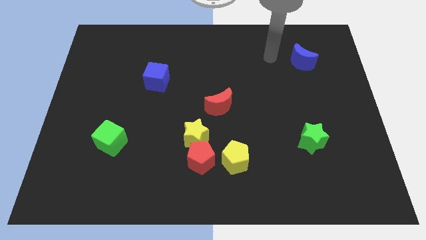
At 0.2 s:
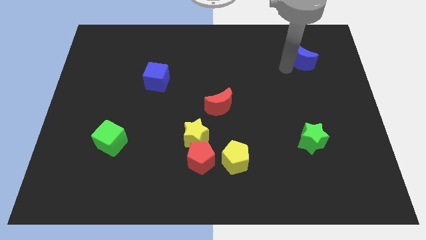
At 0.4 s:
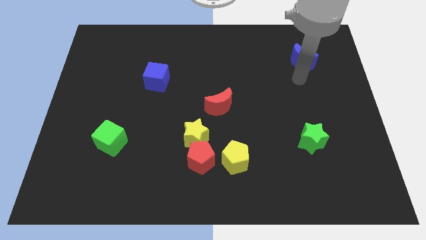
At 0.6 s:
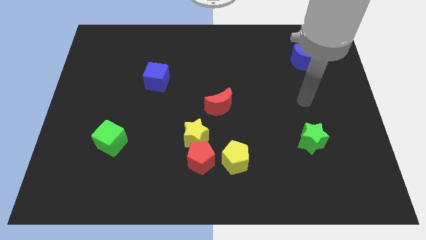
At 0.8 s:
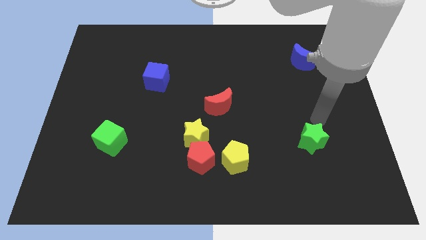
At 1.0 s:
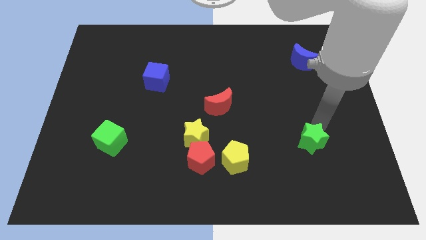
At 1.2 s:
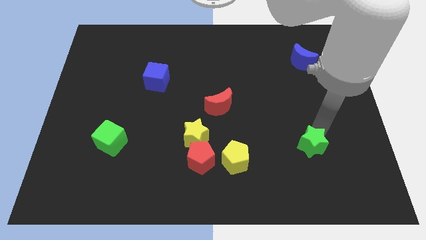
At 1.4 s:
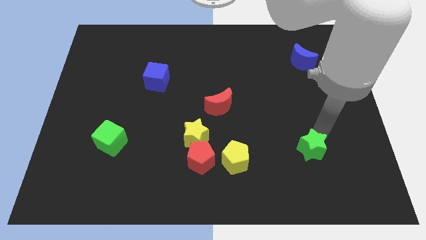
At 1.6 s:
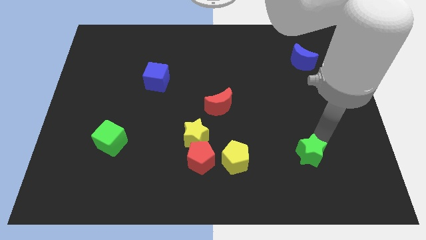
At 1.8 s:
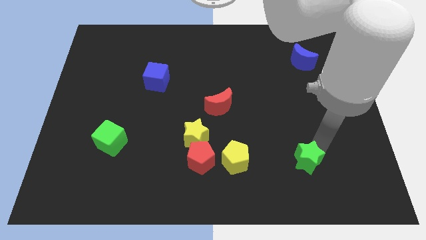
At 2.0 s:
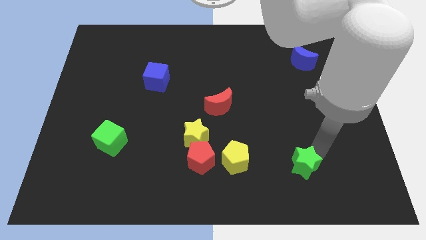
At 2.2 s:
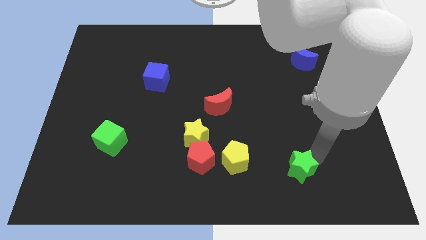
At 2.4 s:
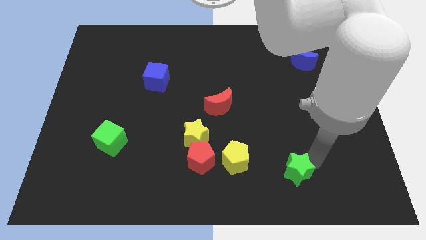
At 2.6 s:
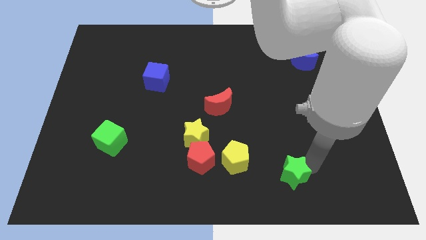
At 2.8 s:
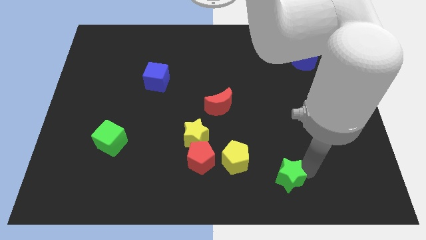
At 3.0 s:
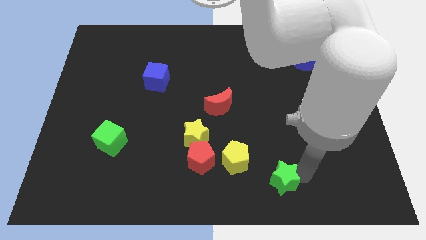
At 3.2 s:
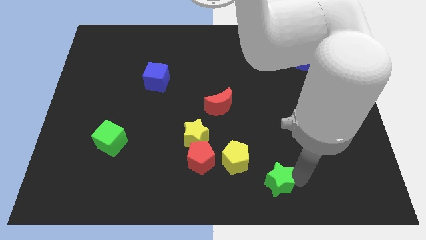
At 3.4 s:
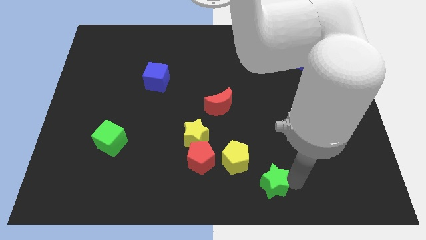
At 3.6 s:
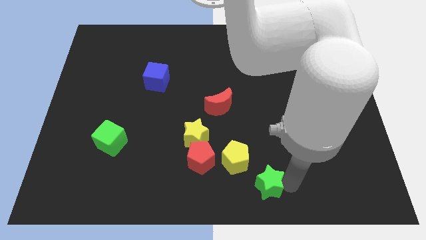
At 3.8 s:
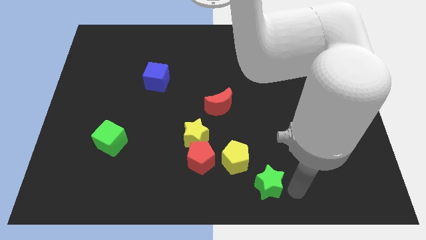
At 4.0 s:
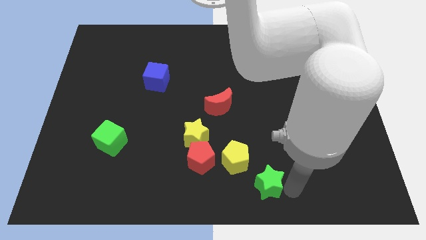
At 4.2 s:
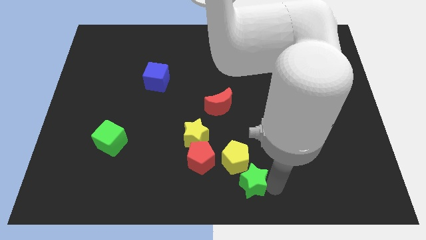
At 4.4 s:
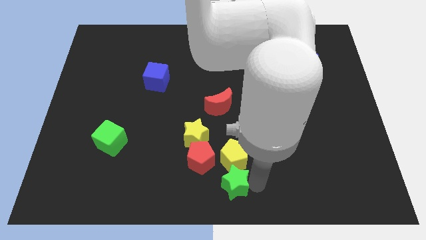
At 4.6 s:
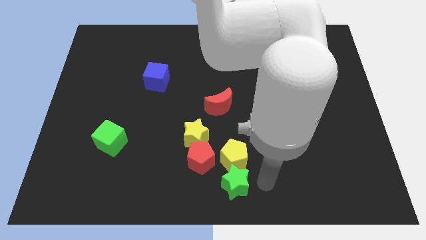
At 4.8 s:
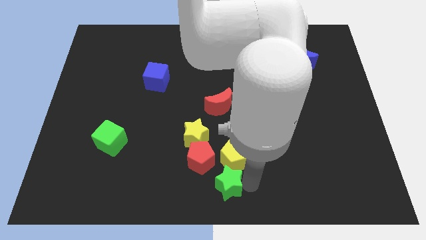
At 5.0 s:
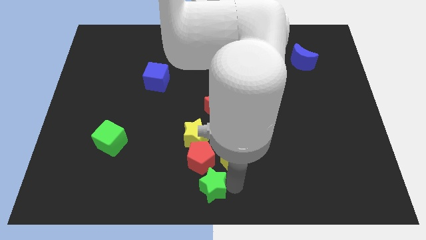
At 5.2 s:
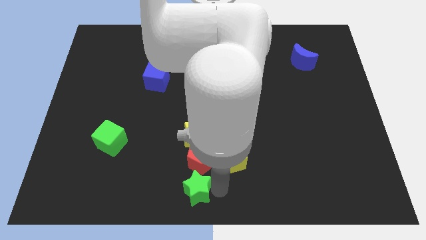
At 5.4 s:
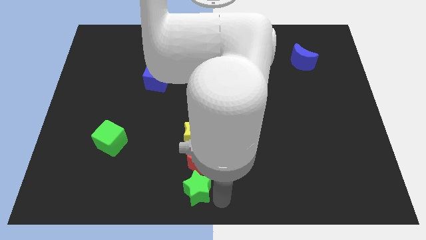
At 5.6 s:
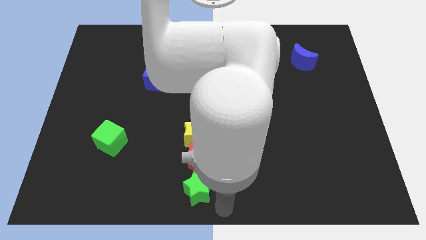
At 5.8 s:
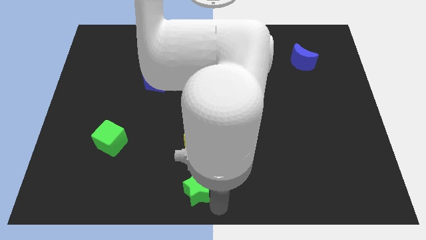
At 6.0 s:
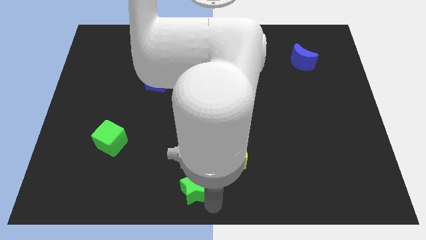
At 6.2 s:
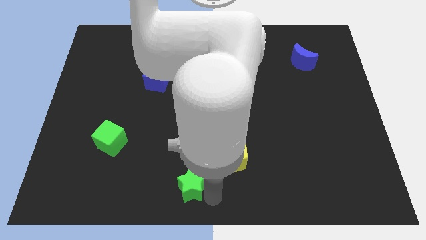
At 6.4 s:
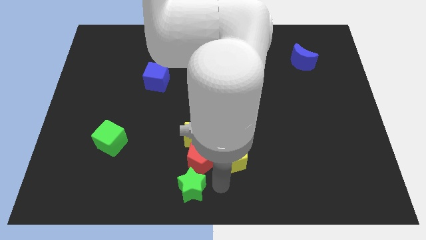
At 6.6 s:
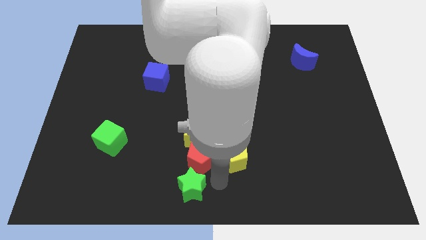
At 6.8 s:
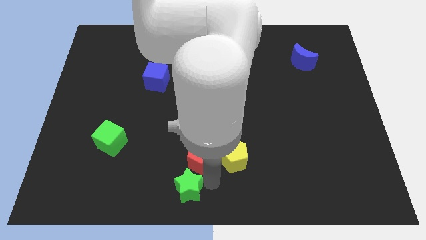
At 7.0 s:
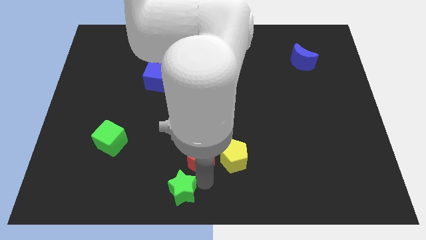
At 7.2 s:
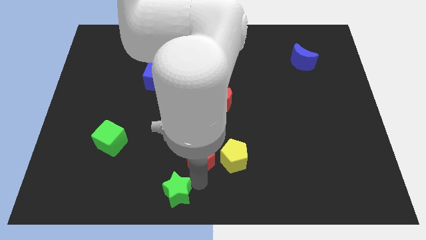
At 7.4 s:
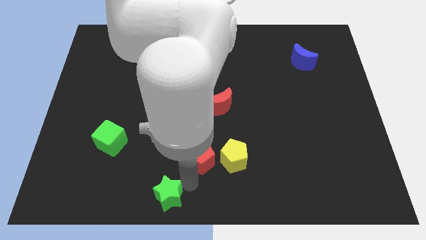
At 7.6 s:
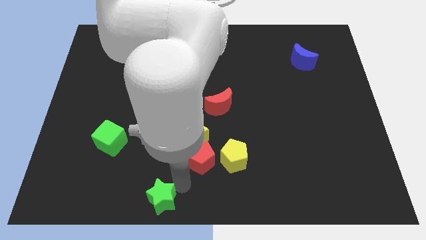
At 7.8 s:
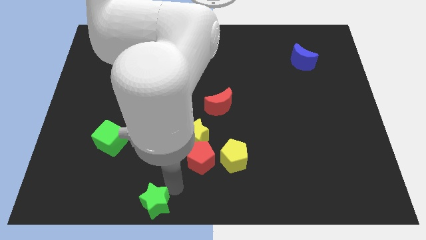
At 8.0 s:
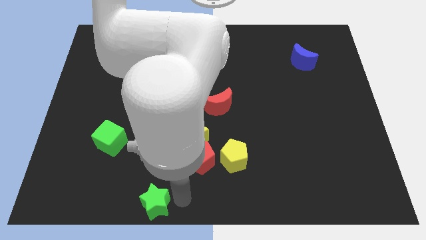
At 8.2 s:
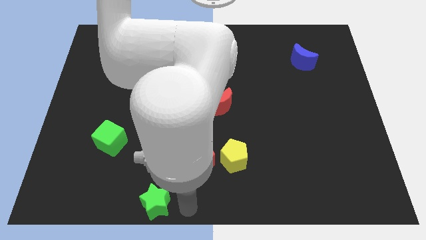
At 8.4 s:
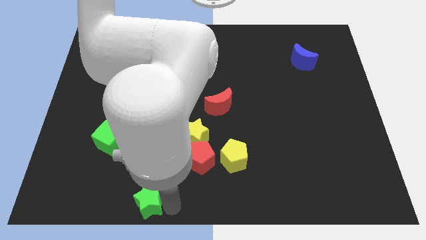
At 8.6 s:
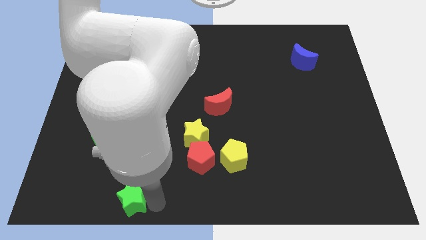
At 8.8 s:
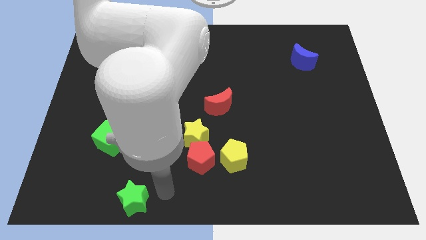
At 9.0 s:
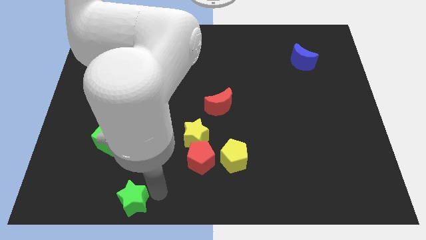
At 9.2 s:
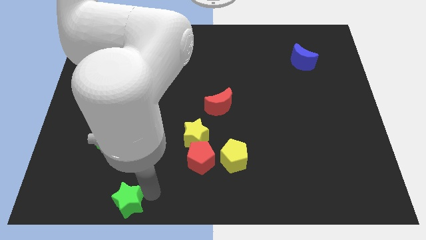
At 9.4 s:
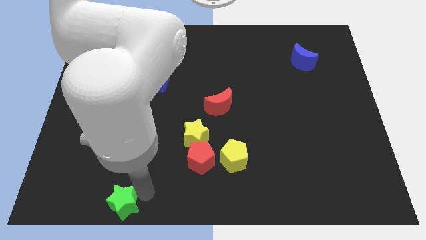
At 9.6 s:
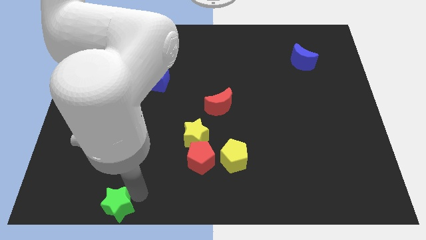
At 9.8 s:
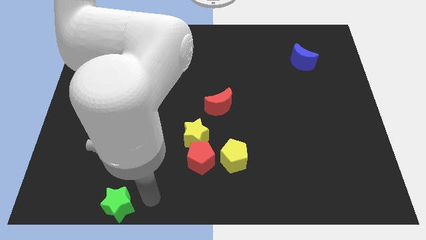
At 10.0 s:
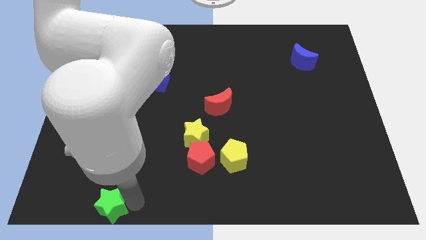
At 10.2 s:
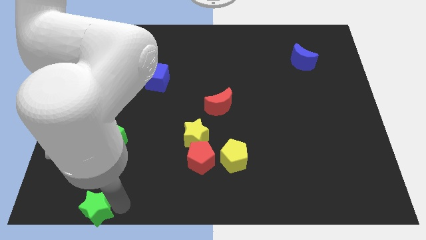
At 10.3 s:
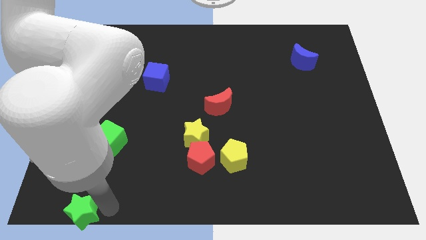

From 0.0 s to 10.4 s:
move the green star to the bottom left corner

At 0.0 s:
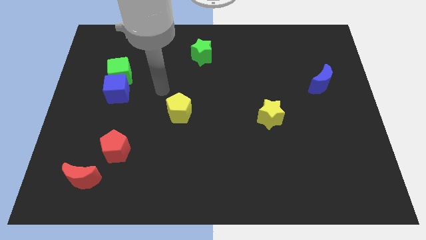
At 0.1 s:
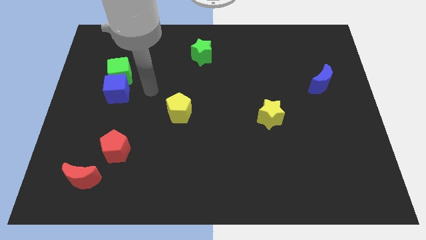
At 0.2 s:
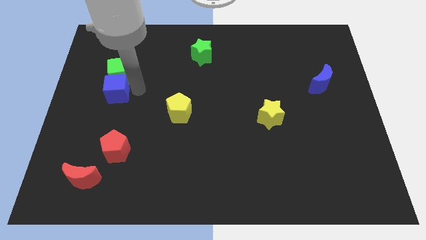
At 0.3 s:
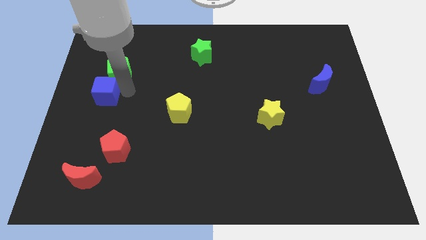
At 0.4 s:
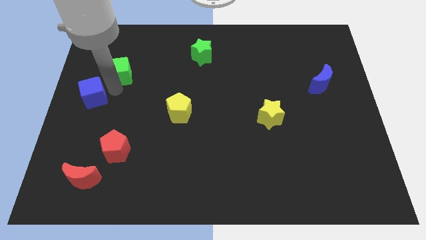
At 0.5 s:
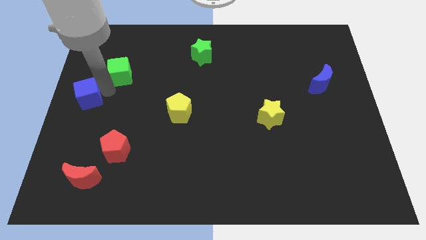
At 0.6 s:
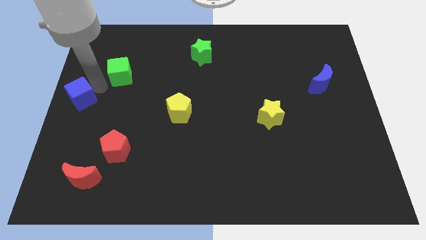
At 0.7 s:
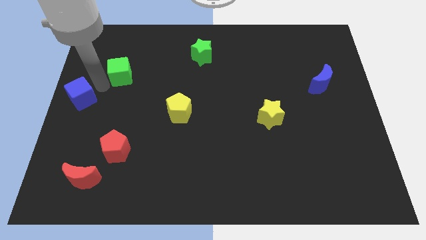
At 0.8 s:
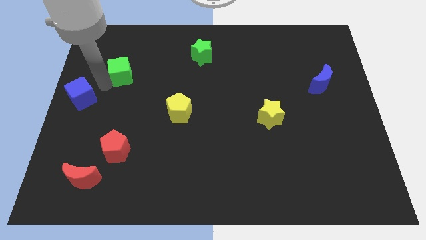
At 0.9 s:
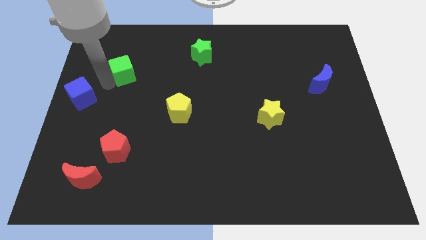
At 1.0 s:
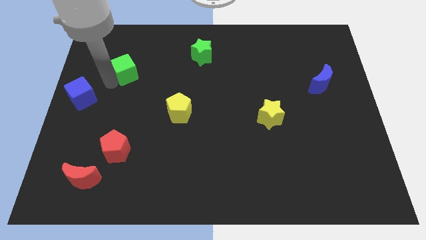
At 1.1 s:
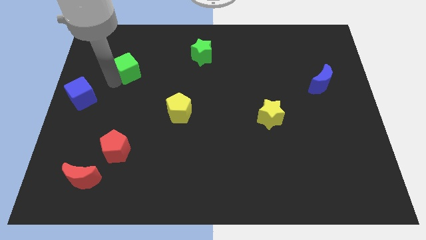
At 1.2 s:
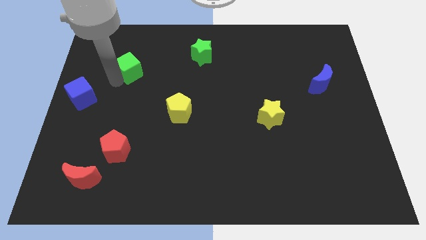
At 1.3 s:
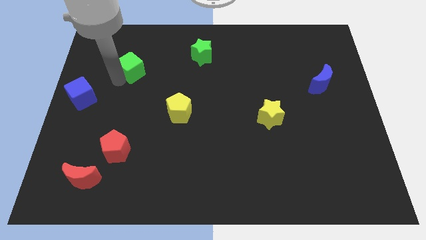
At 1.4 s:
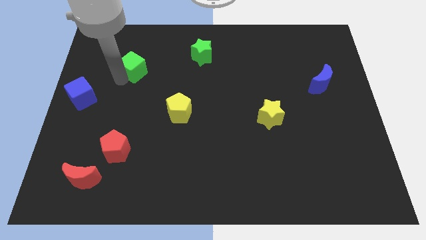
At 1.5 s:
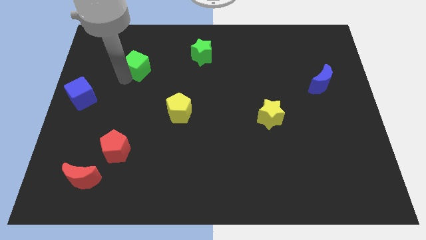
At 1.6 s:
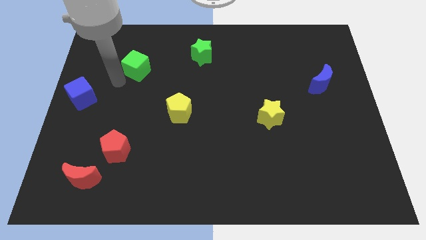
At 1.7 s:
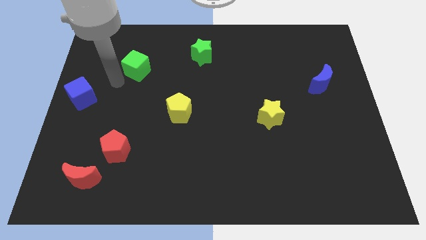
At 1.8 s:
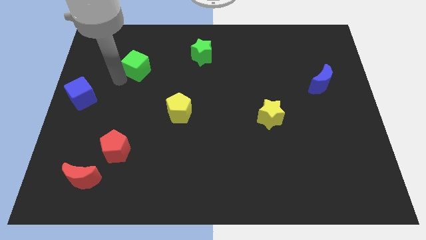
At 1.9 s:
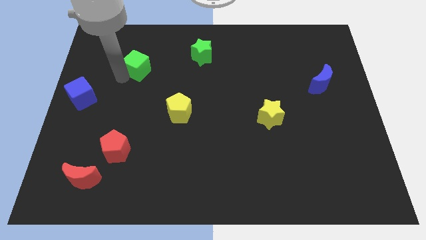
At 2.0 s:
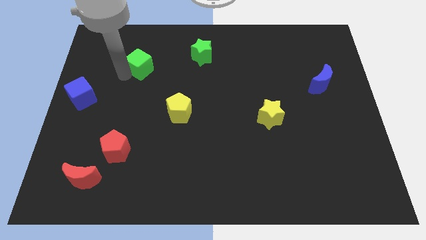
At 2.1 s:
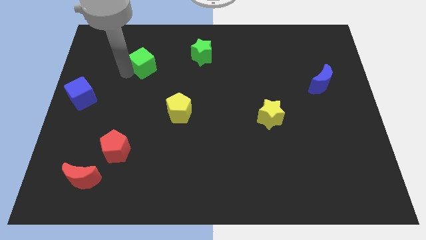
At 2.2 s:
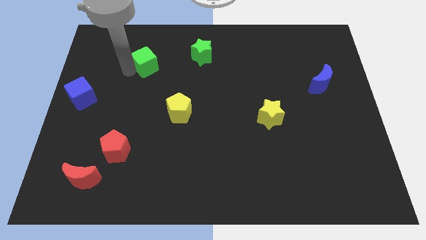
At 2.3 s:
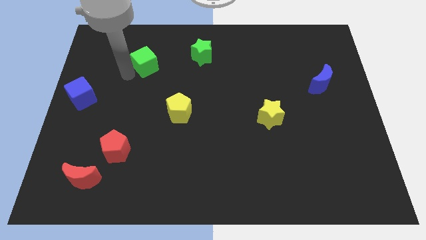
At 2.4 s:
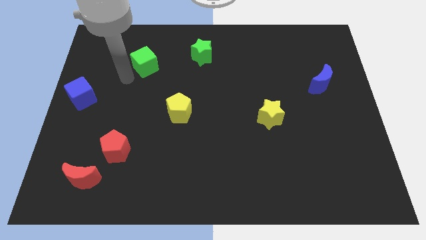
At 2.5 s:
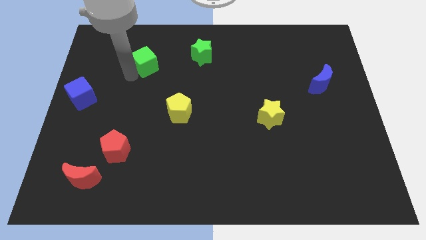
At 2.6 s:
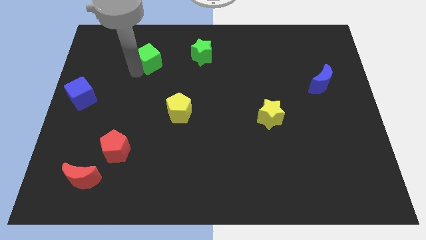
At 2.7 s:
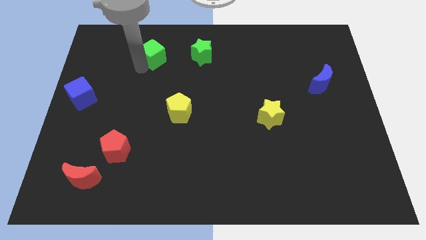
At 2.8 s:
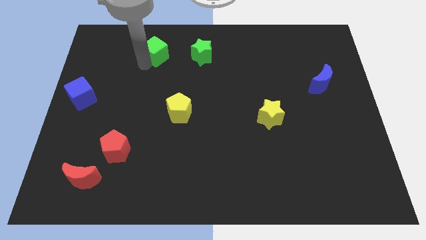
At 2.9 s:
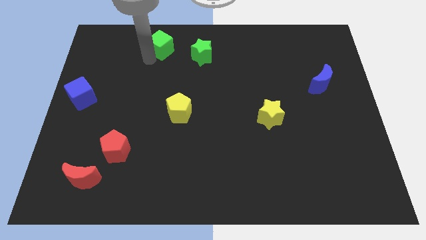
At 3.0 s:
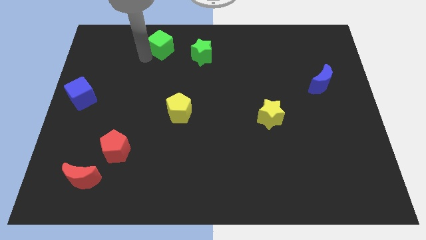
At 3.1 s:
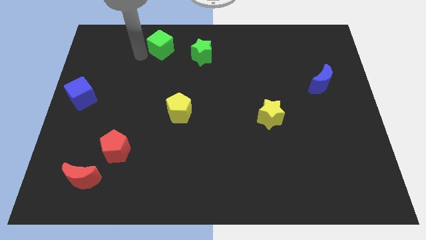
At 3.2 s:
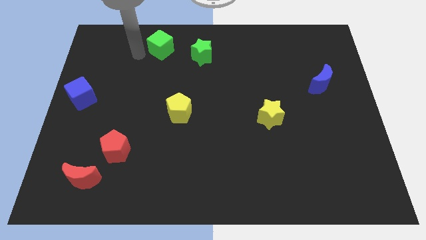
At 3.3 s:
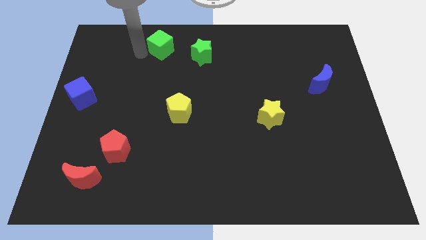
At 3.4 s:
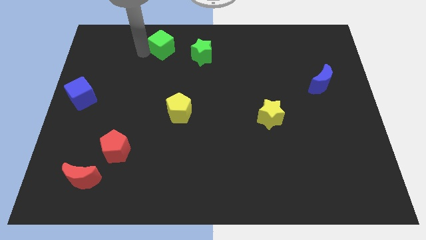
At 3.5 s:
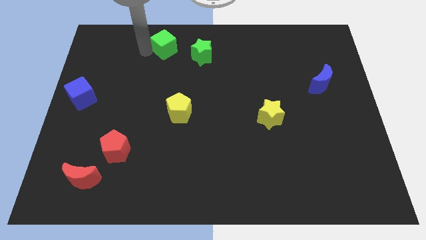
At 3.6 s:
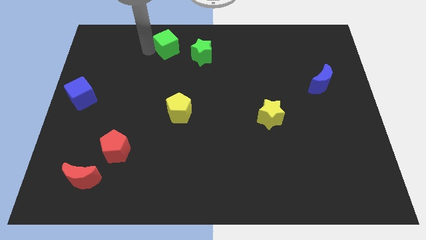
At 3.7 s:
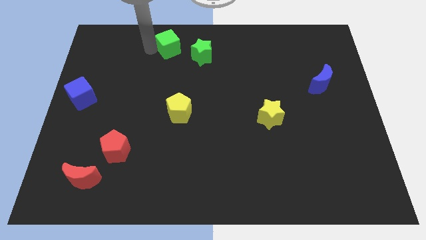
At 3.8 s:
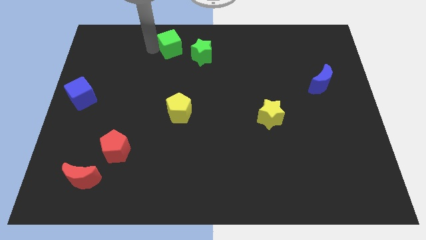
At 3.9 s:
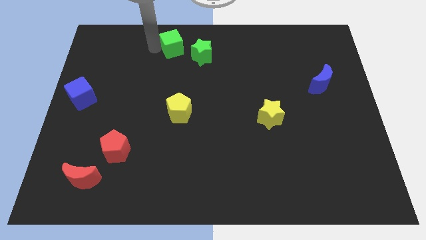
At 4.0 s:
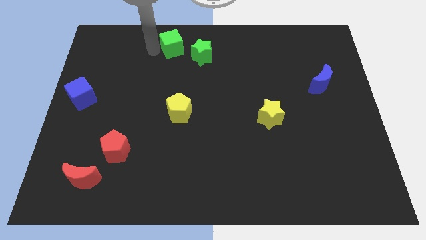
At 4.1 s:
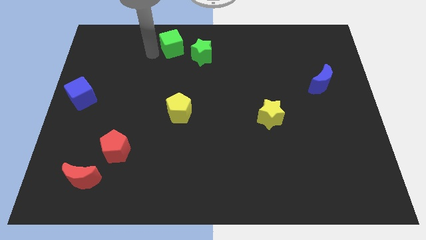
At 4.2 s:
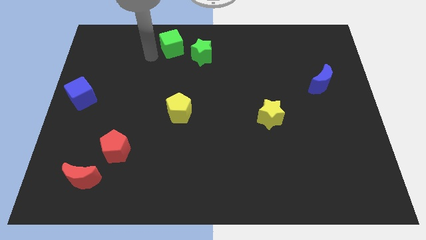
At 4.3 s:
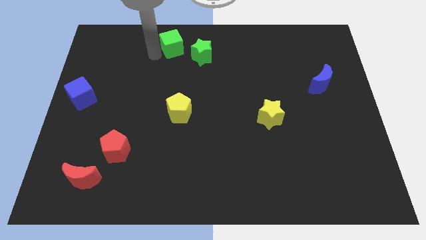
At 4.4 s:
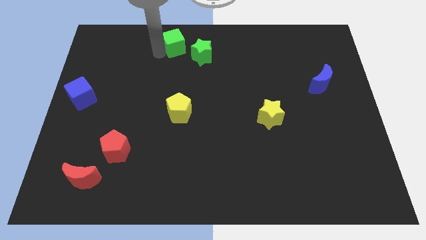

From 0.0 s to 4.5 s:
put the green cube to the top side
